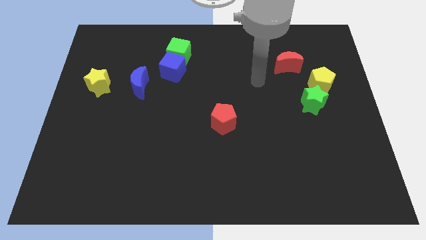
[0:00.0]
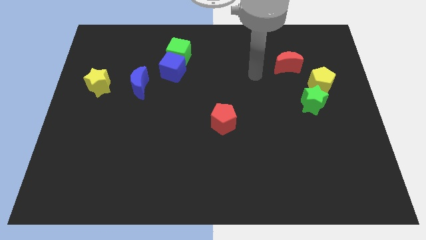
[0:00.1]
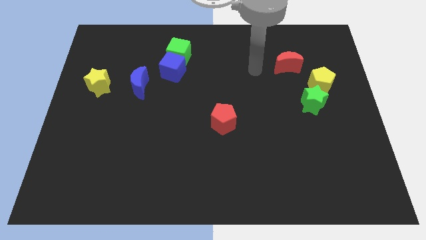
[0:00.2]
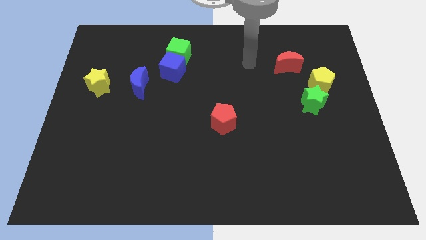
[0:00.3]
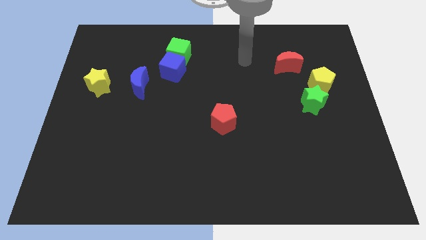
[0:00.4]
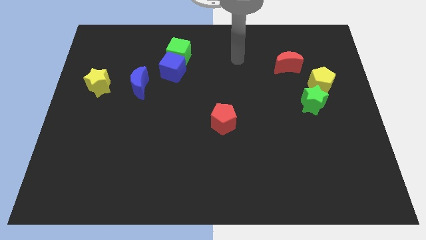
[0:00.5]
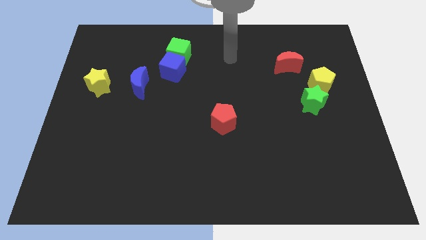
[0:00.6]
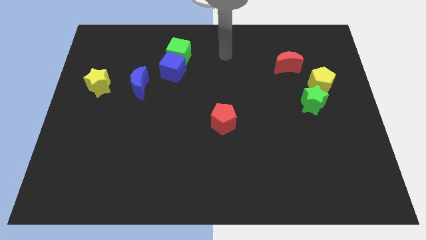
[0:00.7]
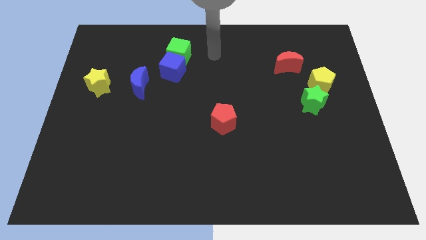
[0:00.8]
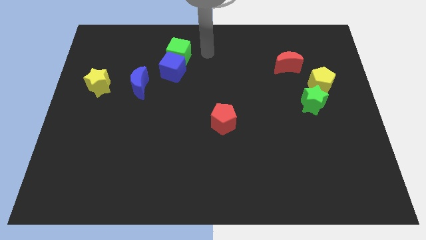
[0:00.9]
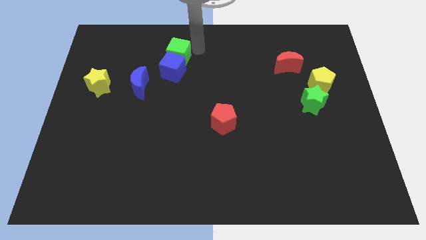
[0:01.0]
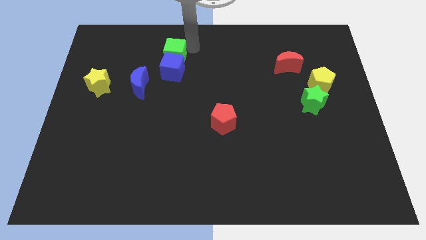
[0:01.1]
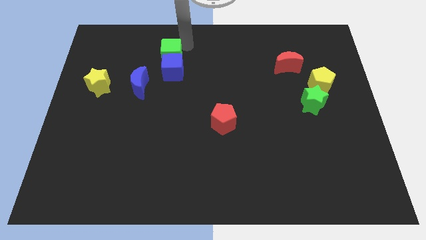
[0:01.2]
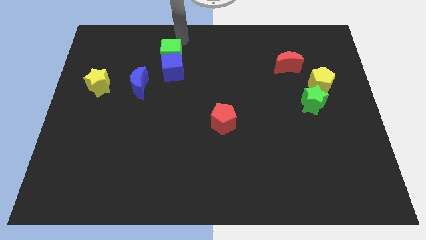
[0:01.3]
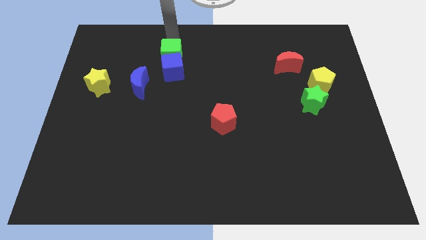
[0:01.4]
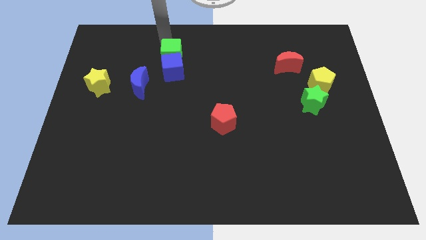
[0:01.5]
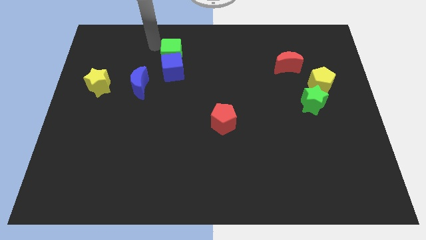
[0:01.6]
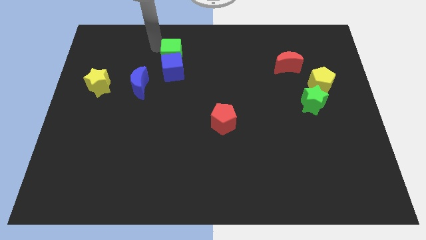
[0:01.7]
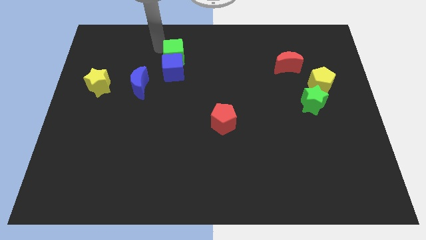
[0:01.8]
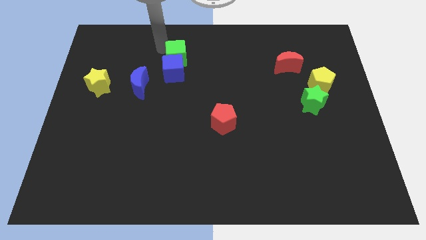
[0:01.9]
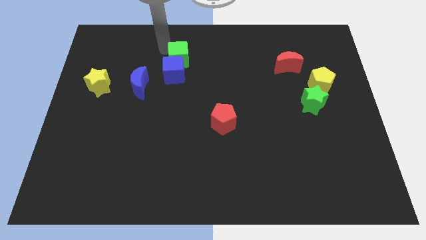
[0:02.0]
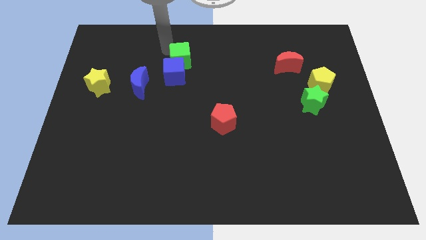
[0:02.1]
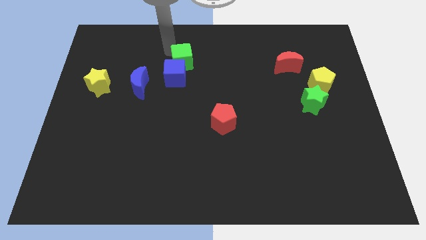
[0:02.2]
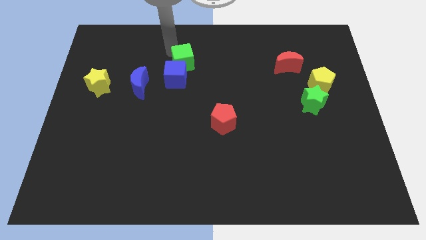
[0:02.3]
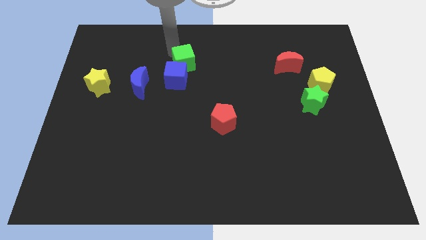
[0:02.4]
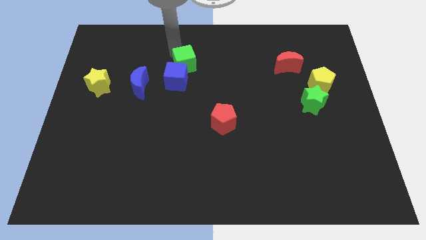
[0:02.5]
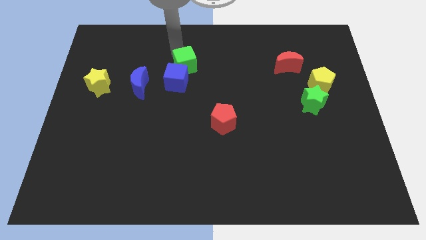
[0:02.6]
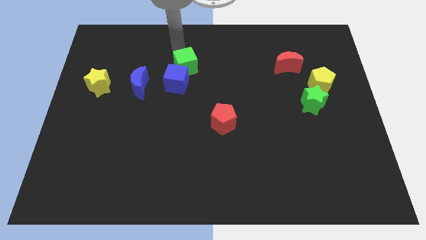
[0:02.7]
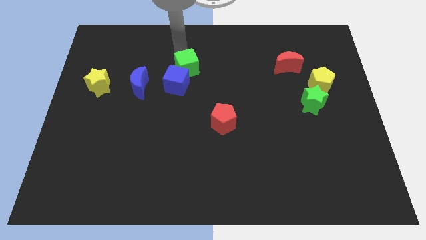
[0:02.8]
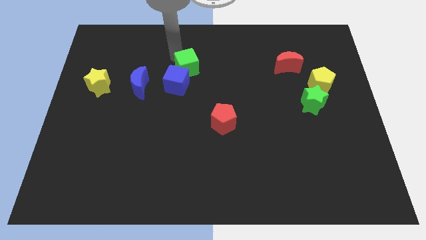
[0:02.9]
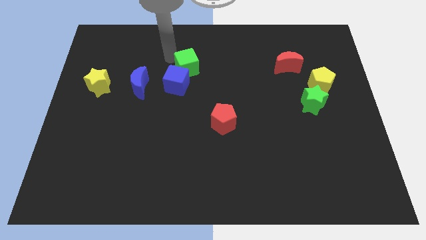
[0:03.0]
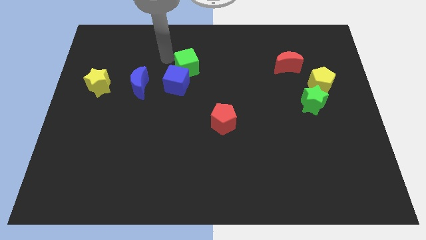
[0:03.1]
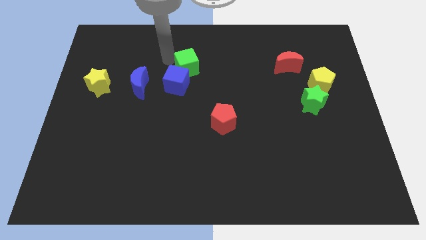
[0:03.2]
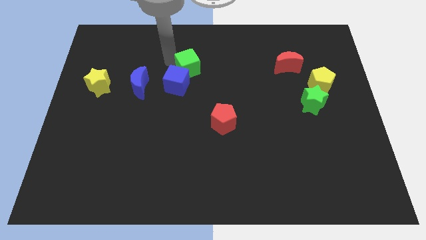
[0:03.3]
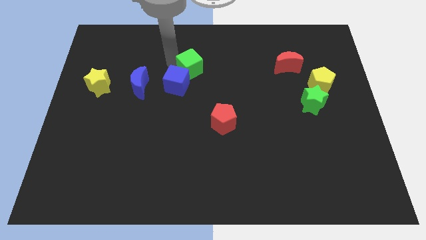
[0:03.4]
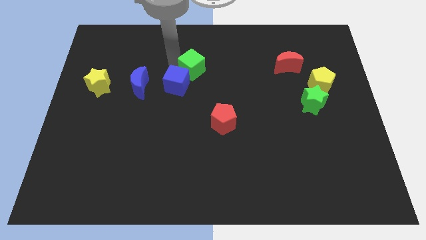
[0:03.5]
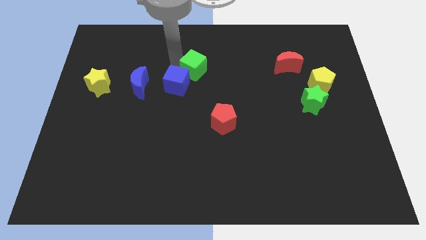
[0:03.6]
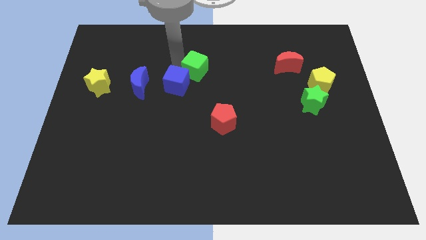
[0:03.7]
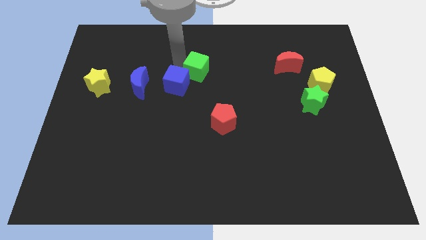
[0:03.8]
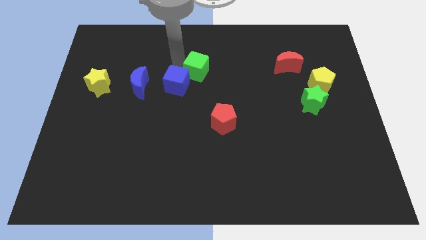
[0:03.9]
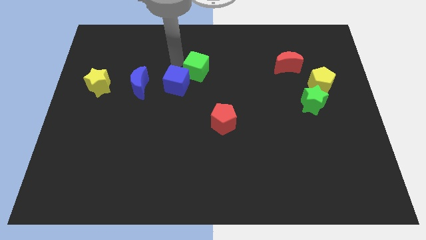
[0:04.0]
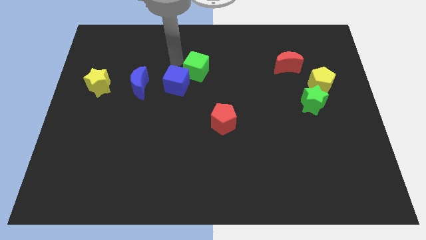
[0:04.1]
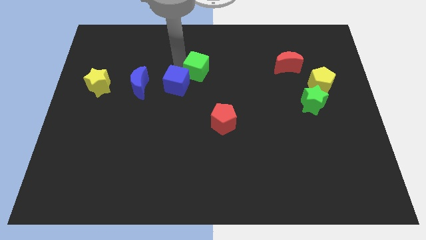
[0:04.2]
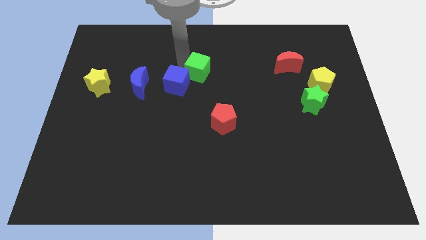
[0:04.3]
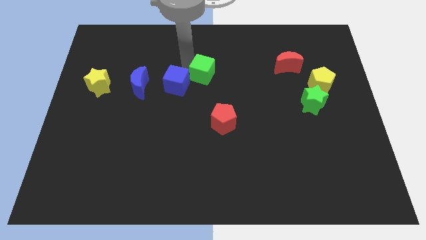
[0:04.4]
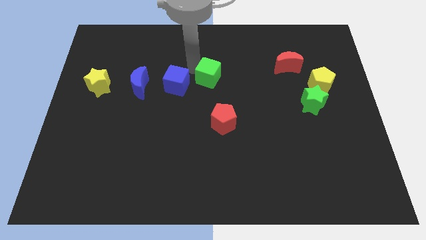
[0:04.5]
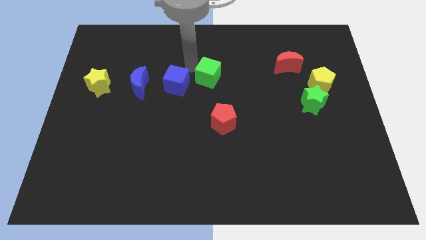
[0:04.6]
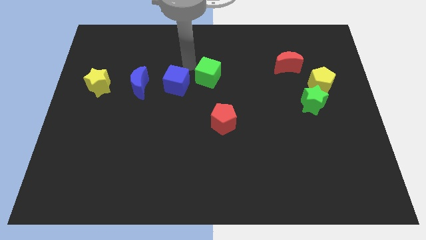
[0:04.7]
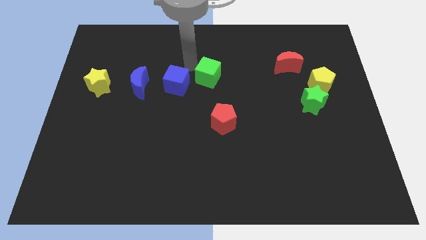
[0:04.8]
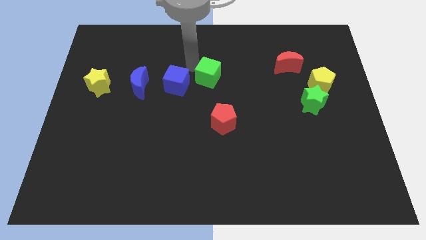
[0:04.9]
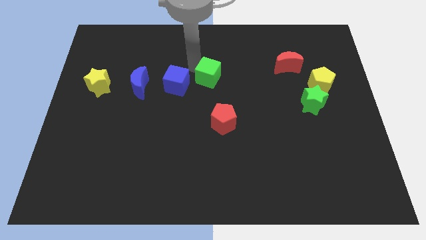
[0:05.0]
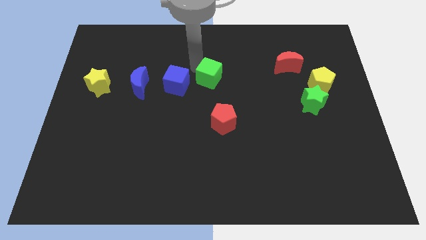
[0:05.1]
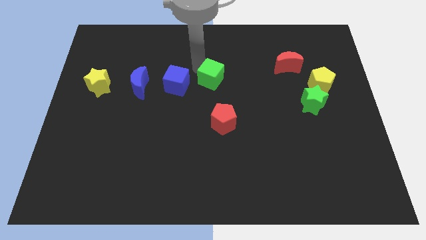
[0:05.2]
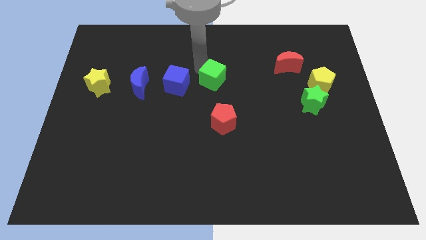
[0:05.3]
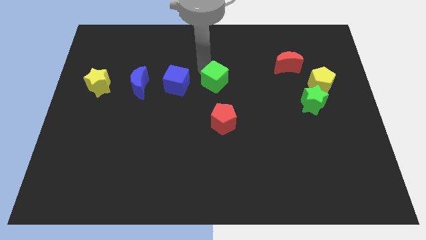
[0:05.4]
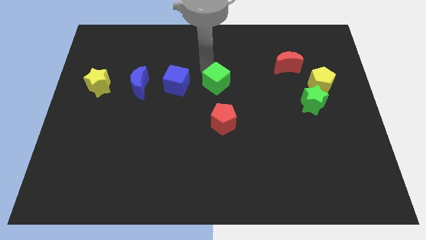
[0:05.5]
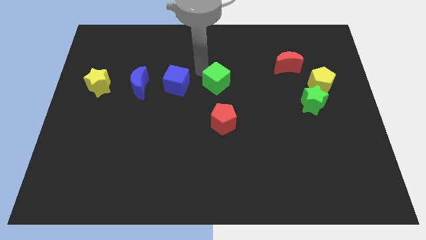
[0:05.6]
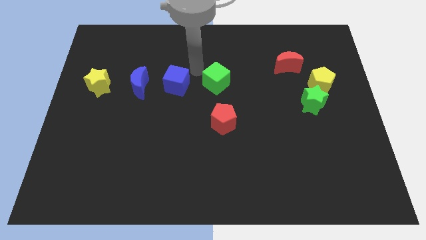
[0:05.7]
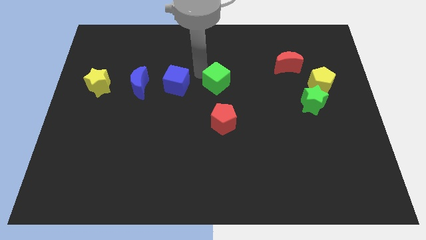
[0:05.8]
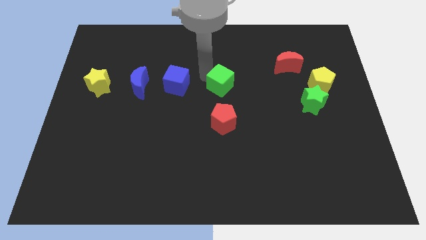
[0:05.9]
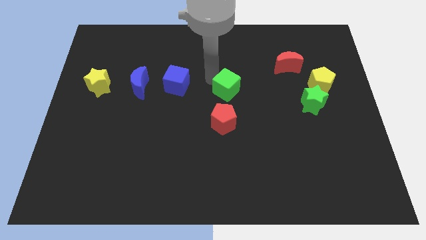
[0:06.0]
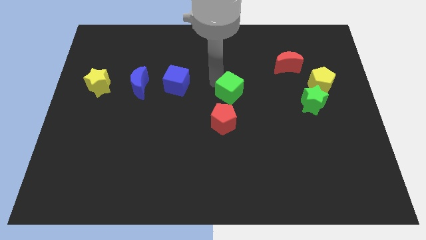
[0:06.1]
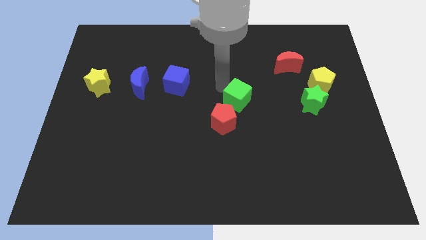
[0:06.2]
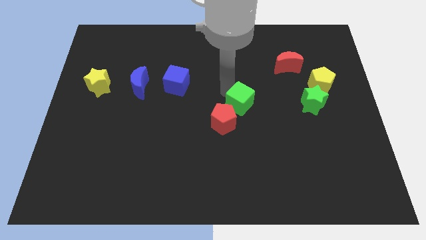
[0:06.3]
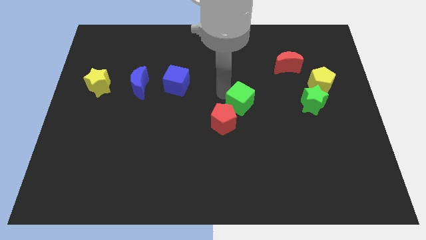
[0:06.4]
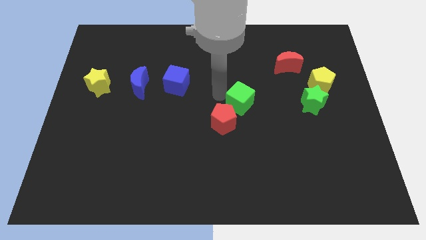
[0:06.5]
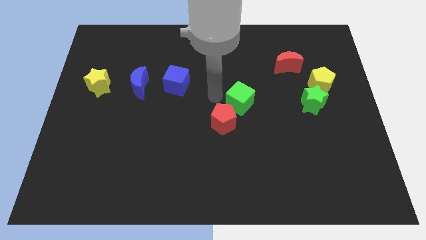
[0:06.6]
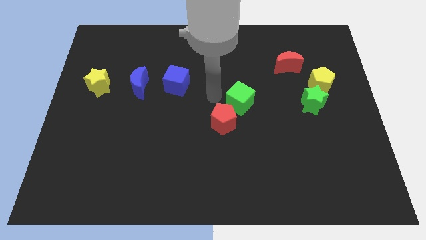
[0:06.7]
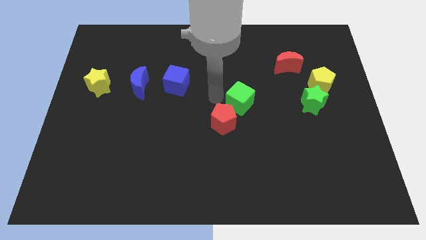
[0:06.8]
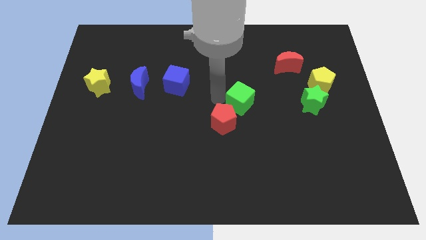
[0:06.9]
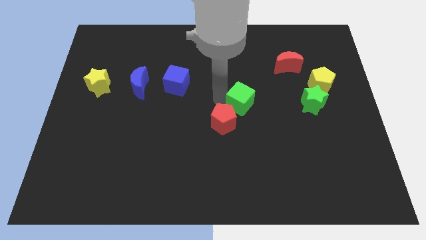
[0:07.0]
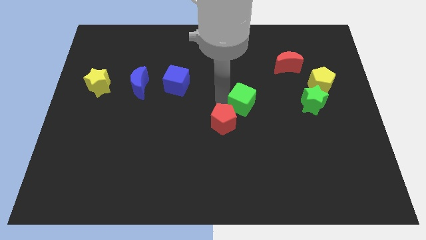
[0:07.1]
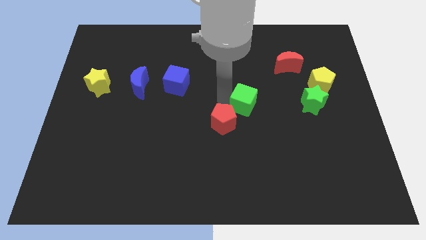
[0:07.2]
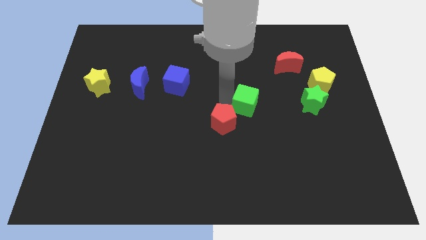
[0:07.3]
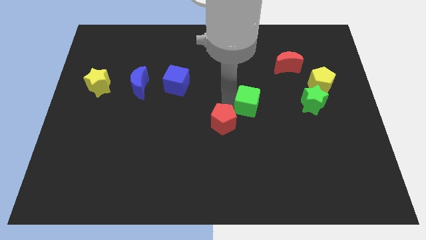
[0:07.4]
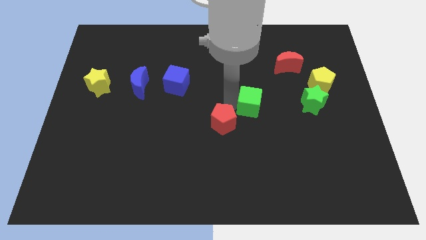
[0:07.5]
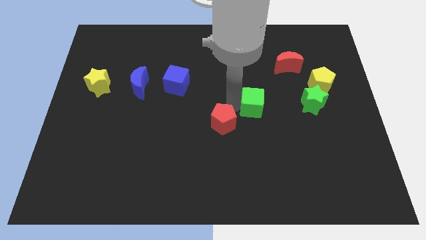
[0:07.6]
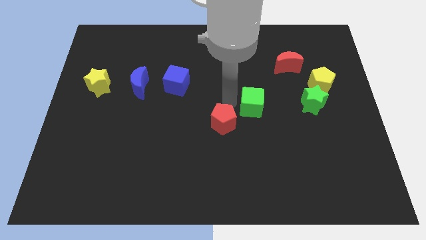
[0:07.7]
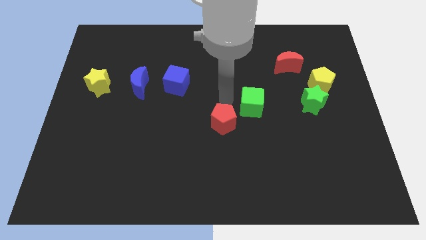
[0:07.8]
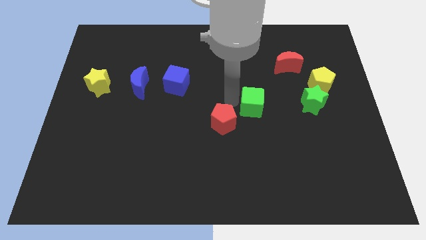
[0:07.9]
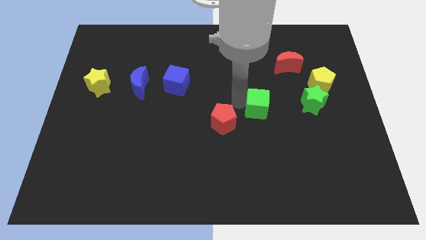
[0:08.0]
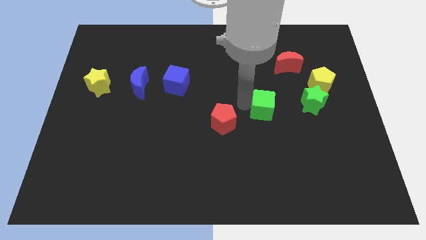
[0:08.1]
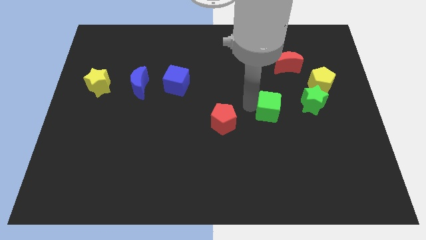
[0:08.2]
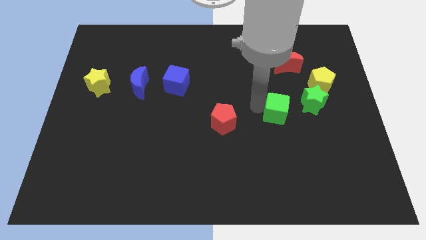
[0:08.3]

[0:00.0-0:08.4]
slide the green cube to the bottom left side of the green star
